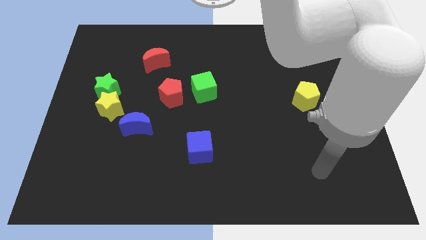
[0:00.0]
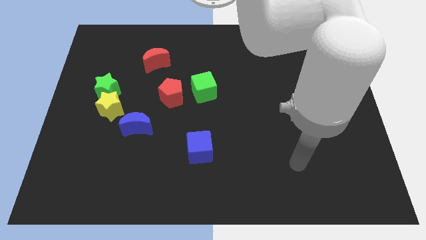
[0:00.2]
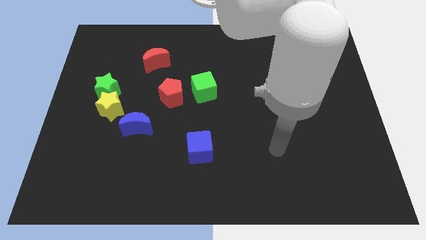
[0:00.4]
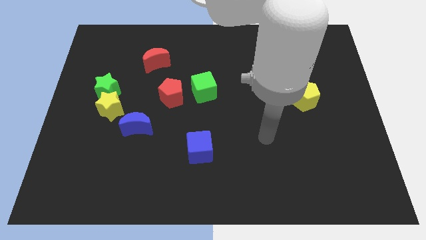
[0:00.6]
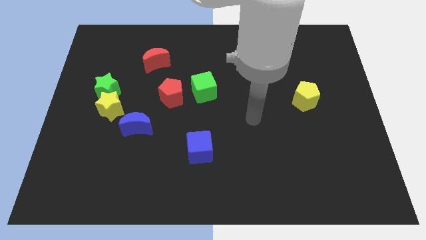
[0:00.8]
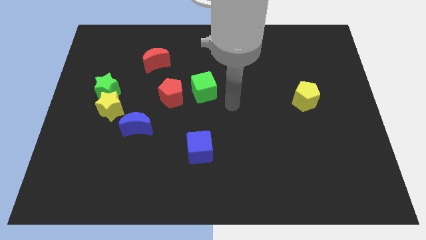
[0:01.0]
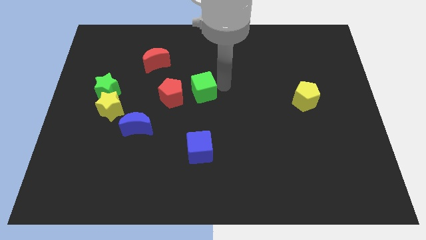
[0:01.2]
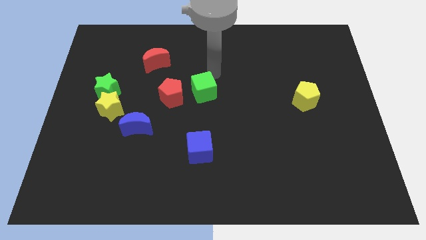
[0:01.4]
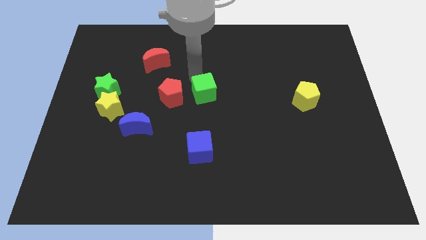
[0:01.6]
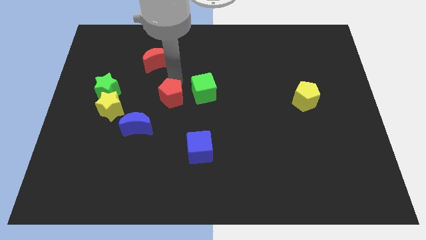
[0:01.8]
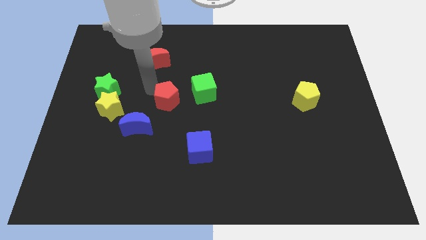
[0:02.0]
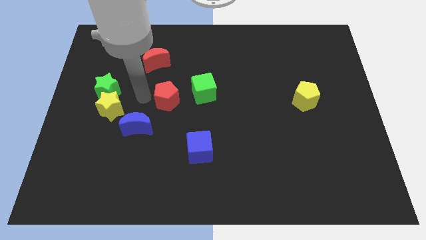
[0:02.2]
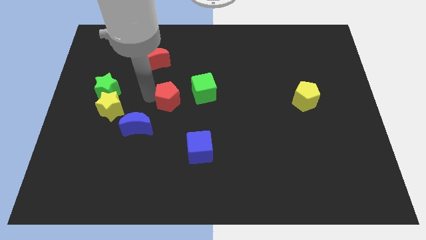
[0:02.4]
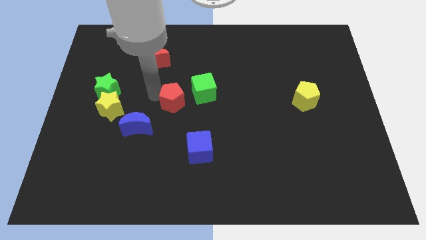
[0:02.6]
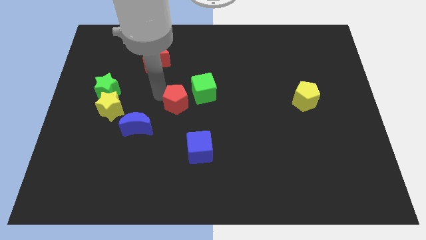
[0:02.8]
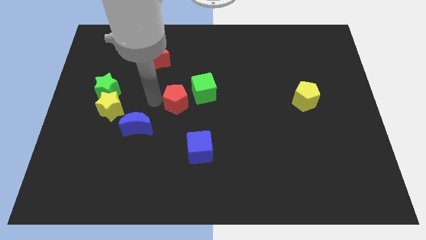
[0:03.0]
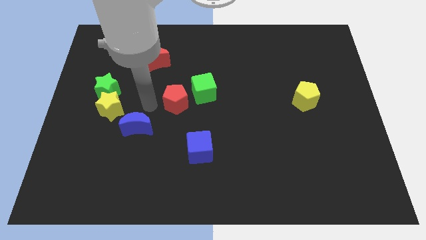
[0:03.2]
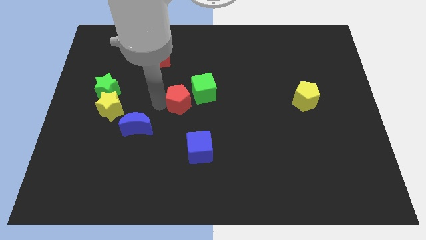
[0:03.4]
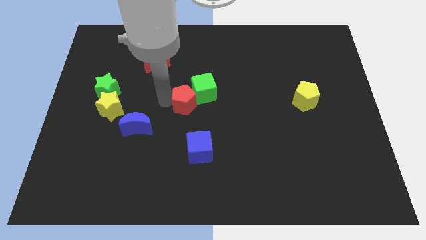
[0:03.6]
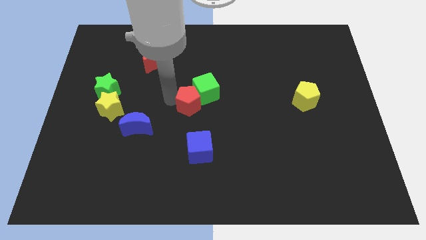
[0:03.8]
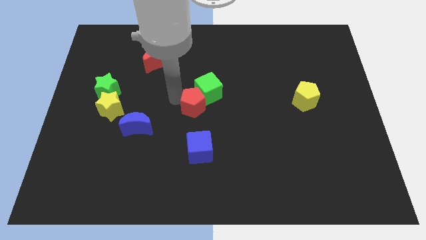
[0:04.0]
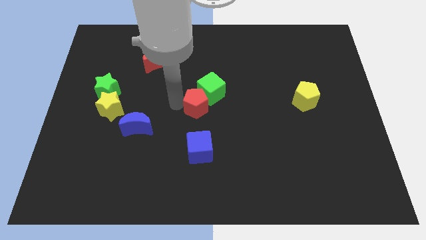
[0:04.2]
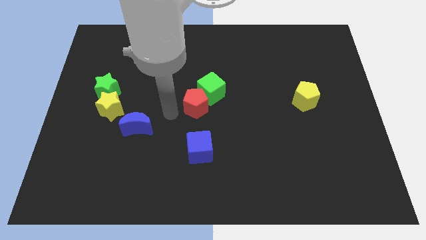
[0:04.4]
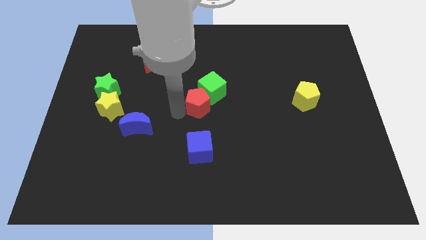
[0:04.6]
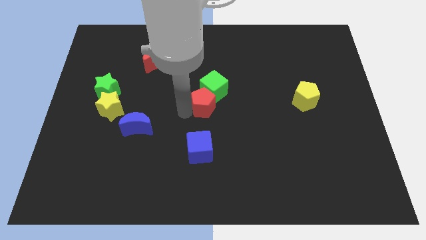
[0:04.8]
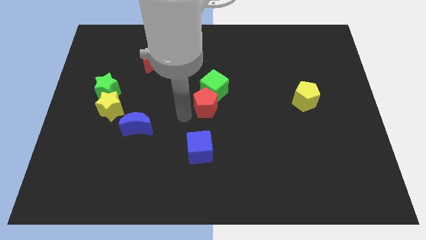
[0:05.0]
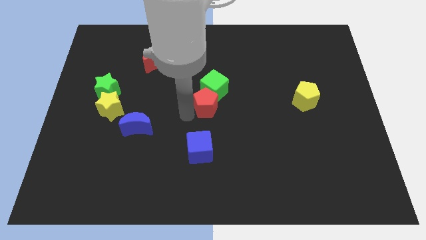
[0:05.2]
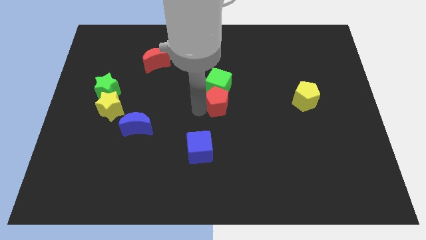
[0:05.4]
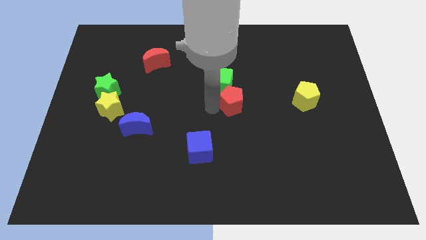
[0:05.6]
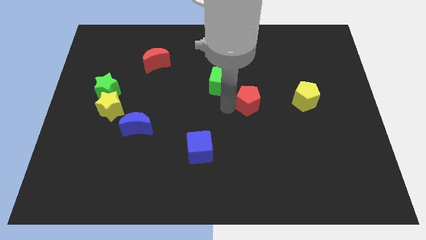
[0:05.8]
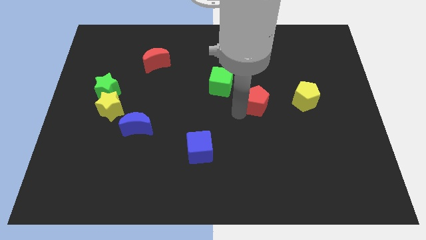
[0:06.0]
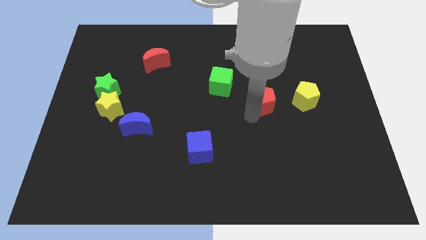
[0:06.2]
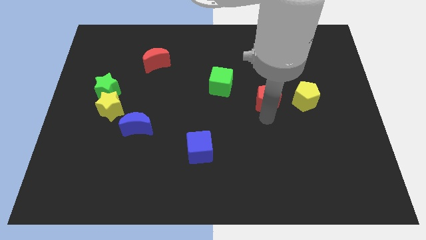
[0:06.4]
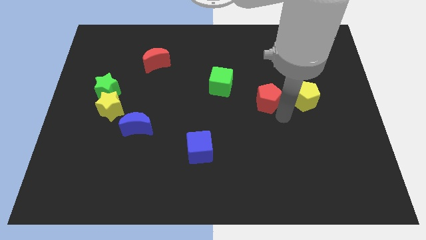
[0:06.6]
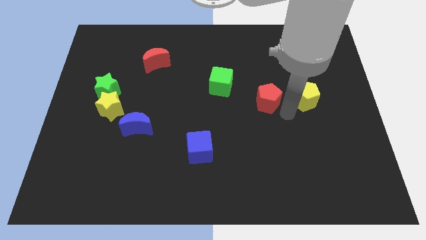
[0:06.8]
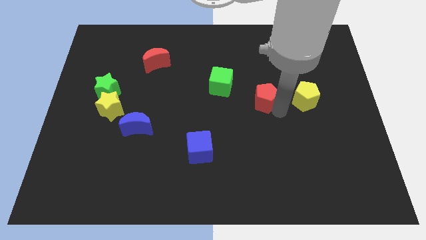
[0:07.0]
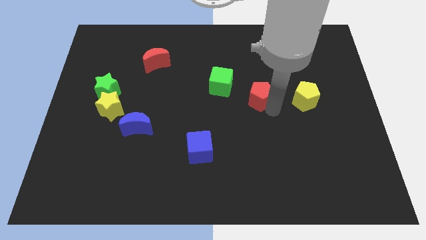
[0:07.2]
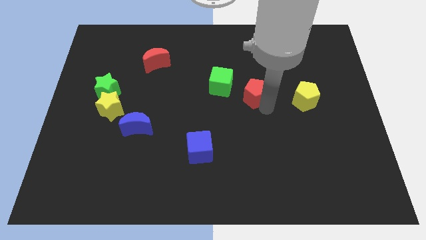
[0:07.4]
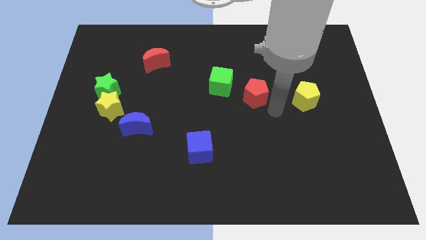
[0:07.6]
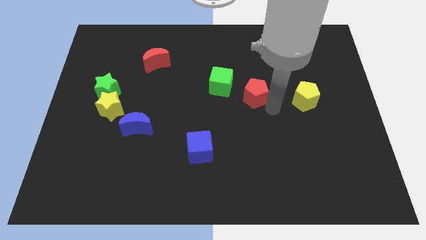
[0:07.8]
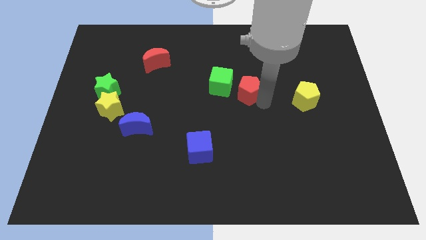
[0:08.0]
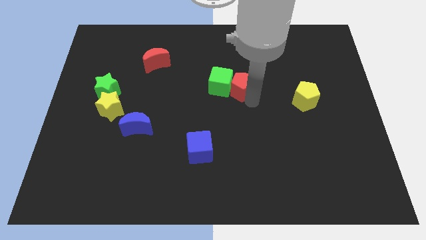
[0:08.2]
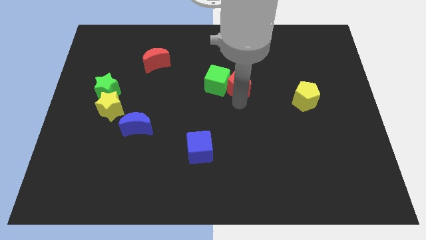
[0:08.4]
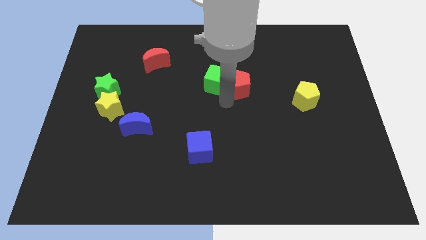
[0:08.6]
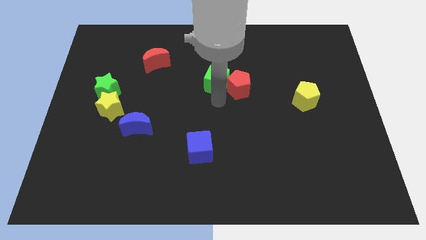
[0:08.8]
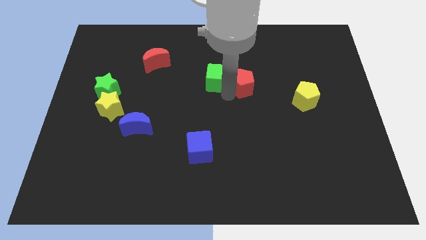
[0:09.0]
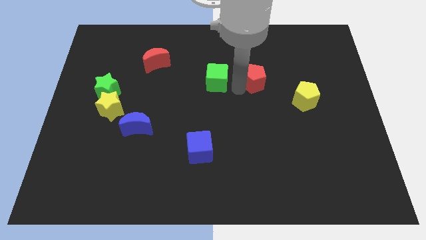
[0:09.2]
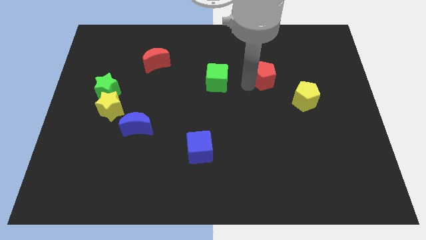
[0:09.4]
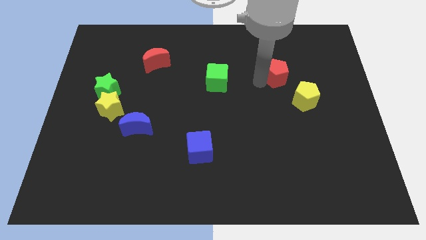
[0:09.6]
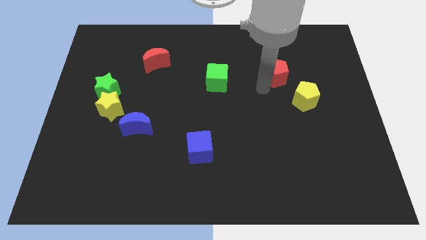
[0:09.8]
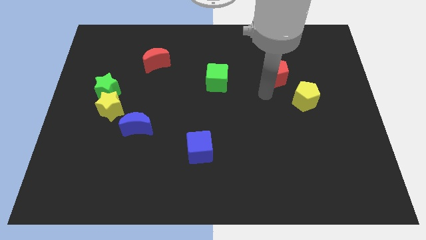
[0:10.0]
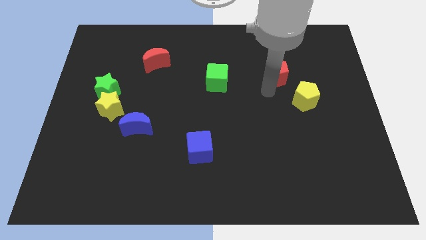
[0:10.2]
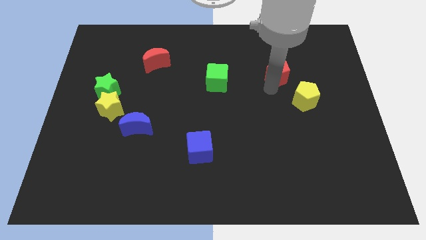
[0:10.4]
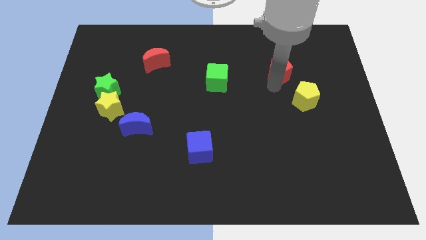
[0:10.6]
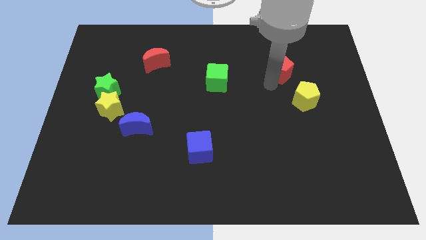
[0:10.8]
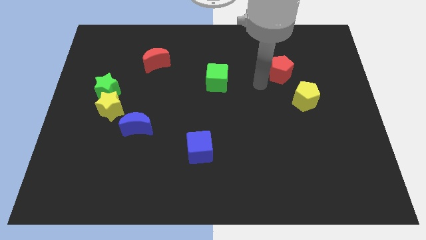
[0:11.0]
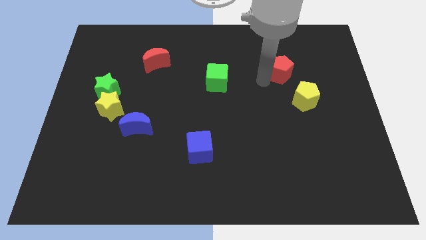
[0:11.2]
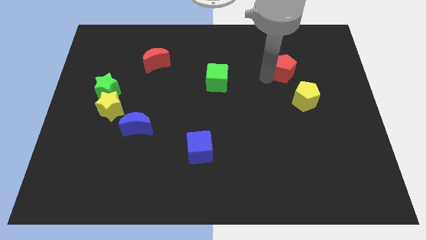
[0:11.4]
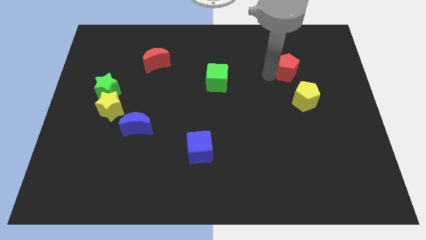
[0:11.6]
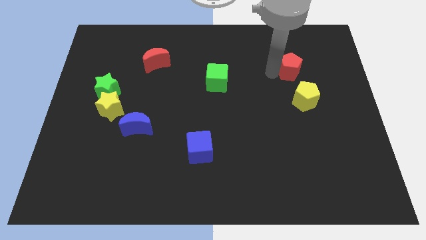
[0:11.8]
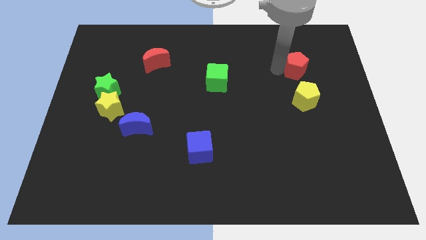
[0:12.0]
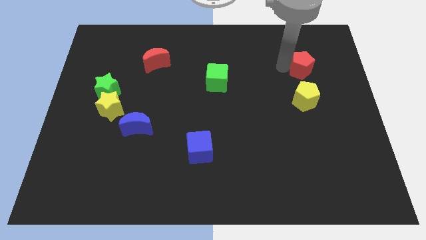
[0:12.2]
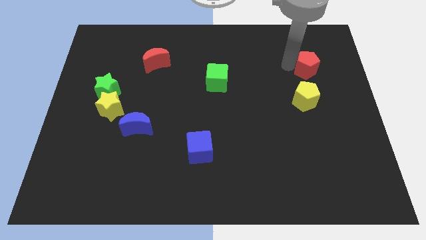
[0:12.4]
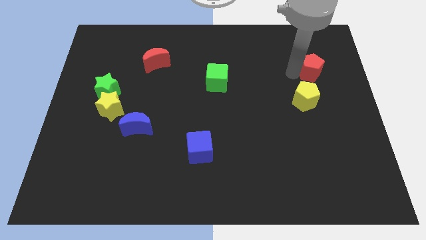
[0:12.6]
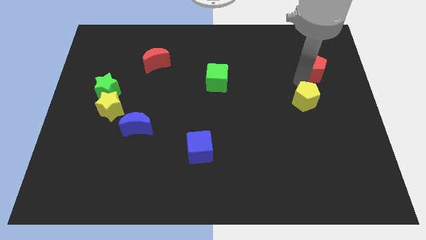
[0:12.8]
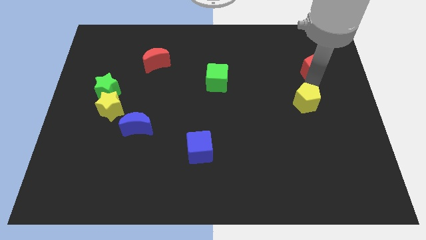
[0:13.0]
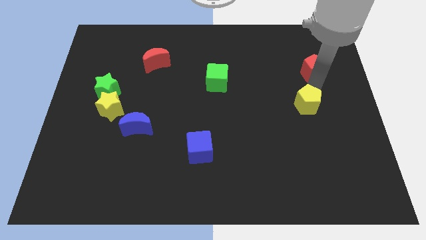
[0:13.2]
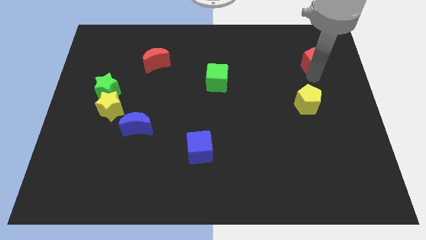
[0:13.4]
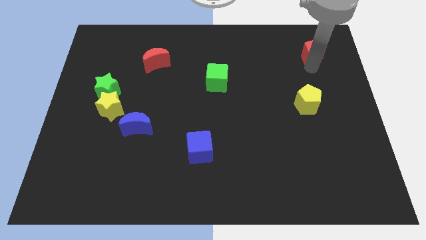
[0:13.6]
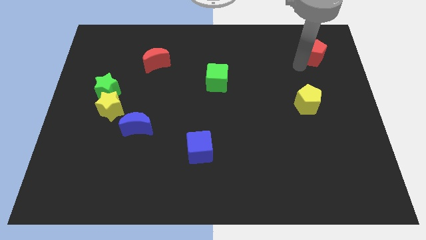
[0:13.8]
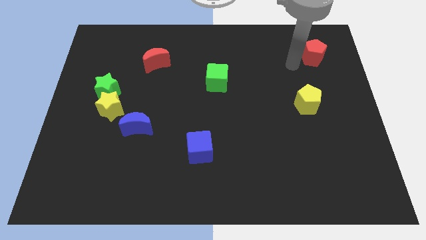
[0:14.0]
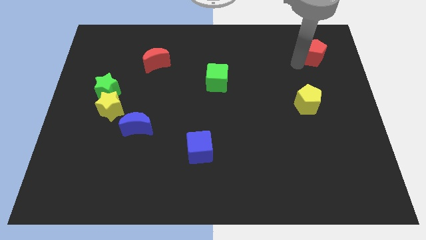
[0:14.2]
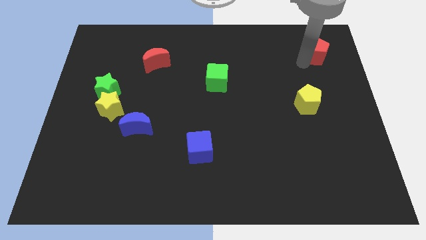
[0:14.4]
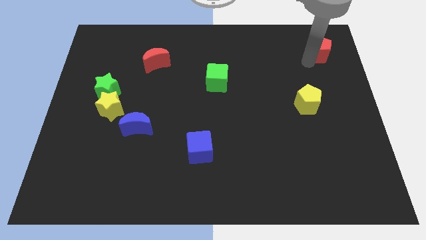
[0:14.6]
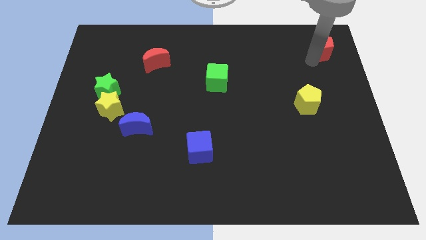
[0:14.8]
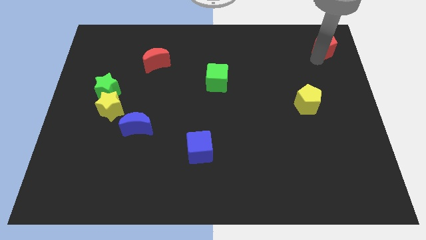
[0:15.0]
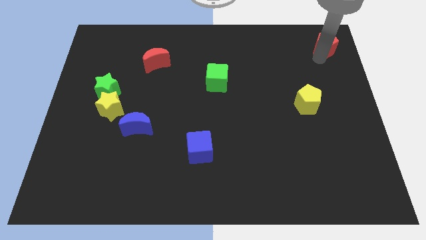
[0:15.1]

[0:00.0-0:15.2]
move the red pentagon to the upper right corner
